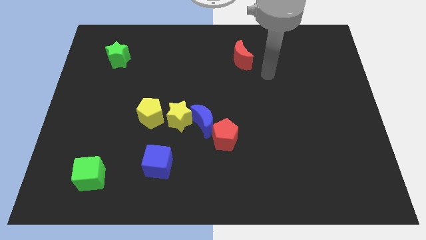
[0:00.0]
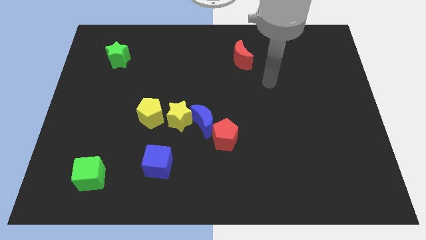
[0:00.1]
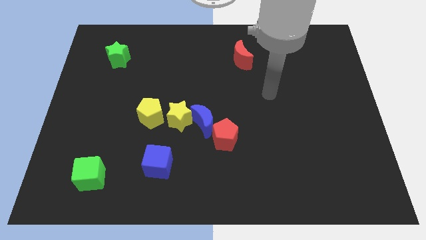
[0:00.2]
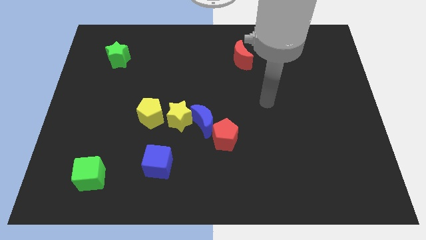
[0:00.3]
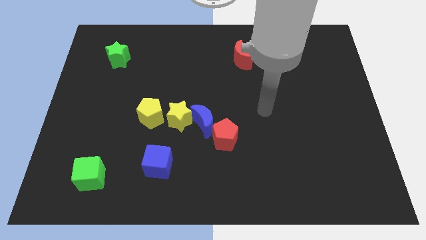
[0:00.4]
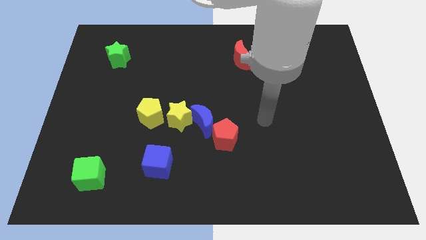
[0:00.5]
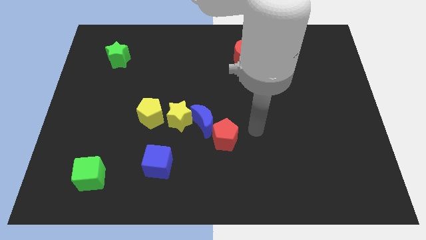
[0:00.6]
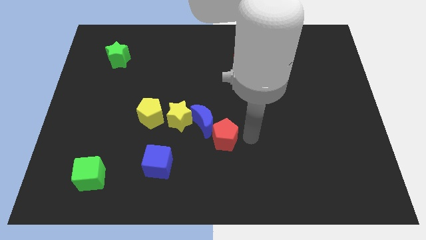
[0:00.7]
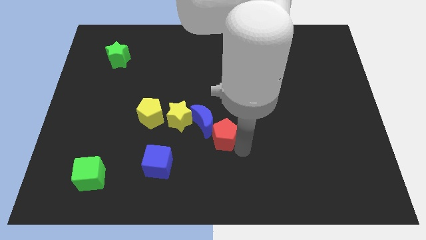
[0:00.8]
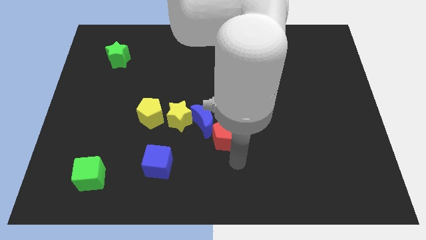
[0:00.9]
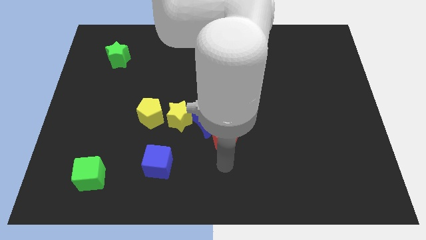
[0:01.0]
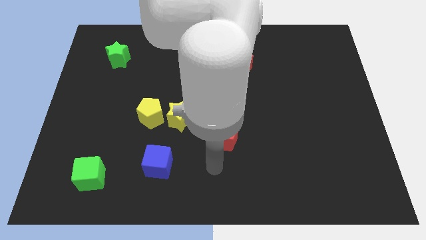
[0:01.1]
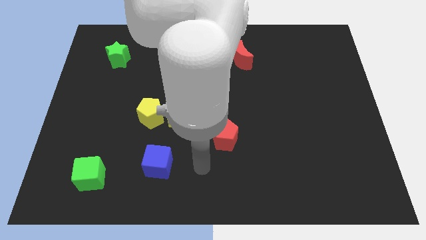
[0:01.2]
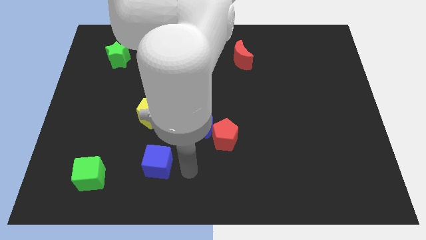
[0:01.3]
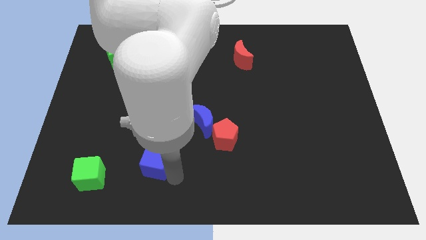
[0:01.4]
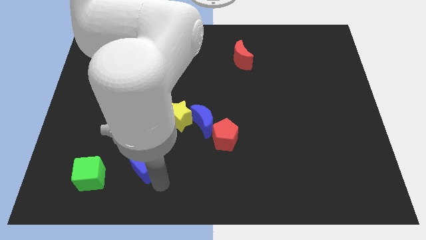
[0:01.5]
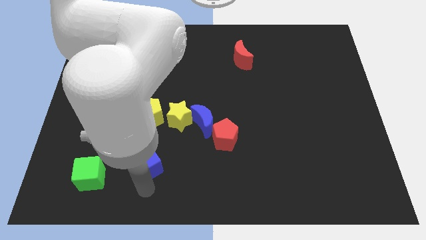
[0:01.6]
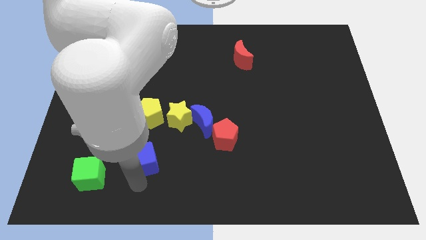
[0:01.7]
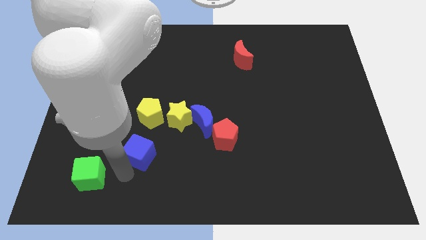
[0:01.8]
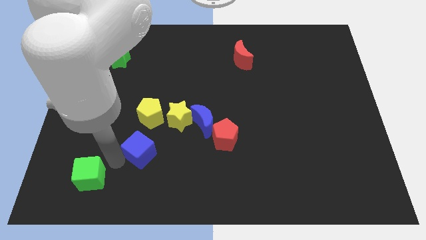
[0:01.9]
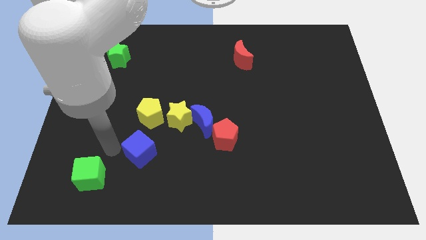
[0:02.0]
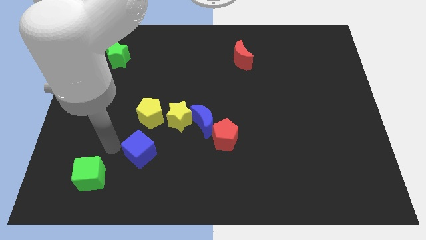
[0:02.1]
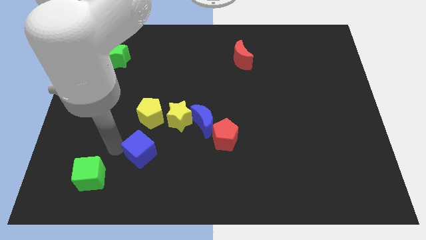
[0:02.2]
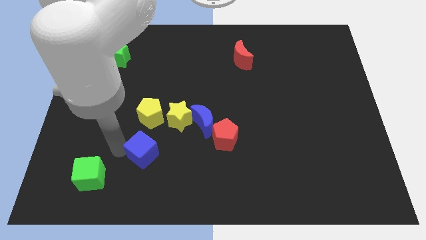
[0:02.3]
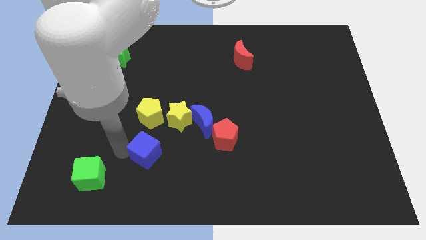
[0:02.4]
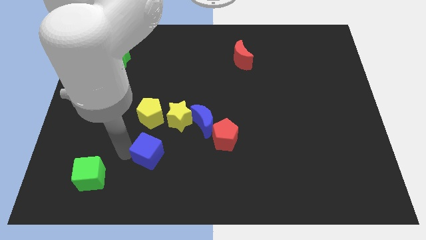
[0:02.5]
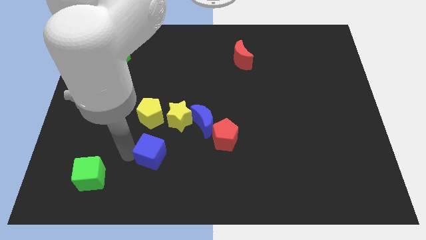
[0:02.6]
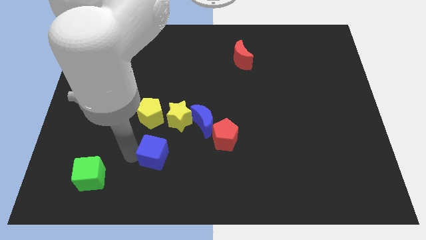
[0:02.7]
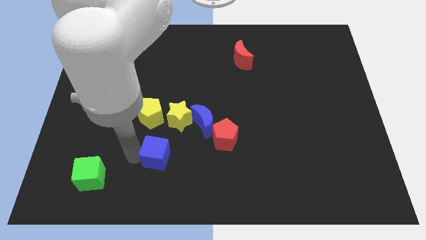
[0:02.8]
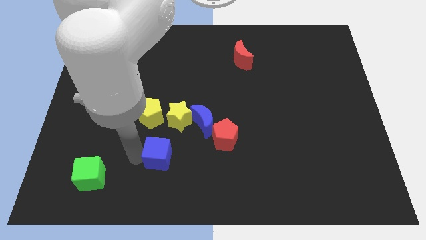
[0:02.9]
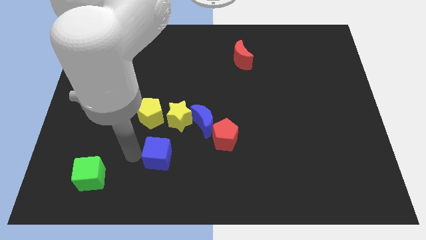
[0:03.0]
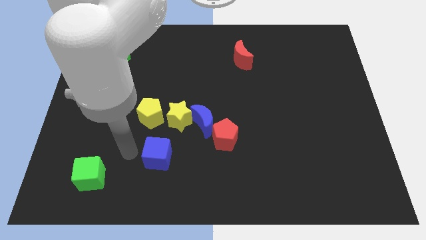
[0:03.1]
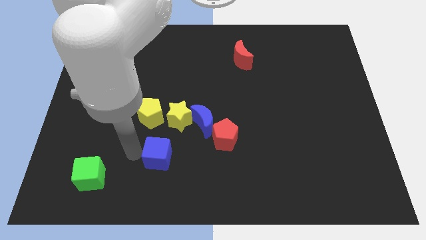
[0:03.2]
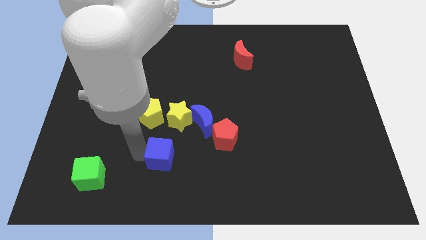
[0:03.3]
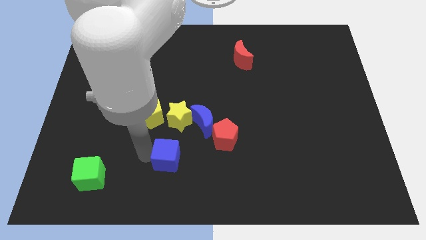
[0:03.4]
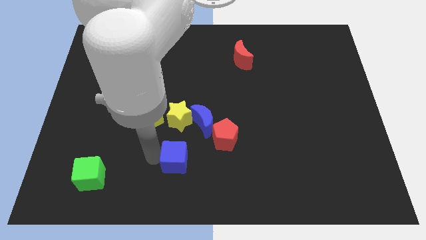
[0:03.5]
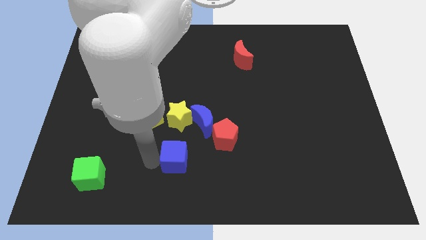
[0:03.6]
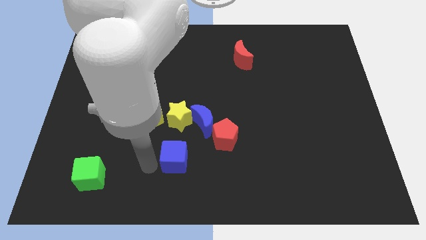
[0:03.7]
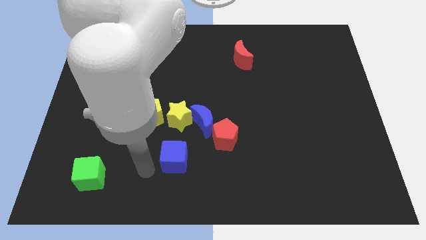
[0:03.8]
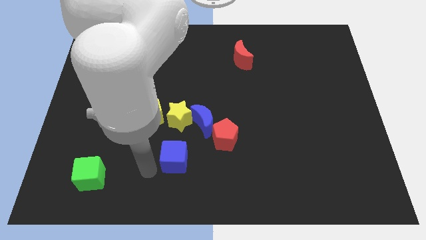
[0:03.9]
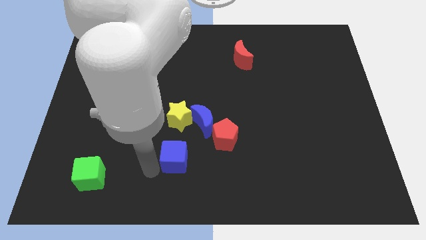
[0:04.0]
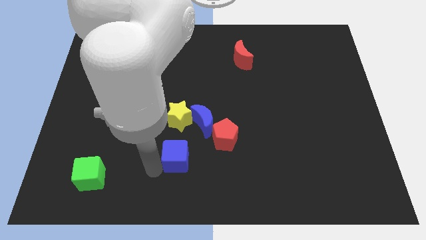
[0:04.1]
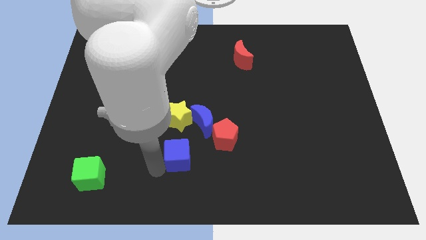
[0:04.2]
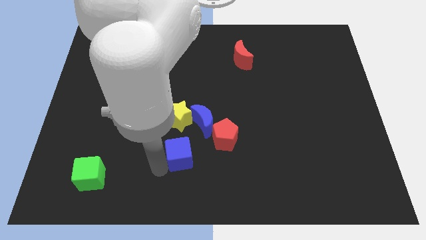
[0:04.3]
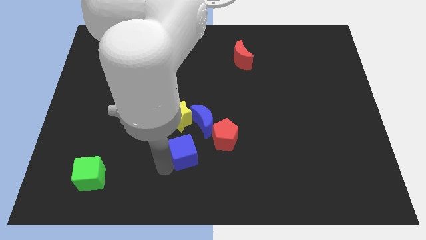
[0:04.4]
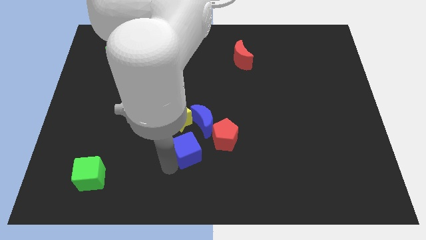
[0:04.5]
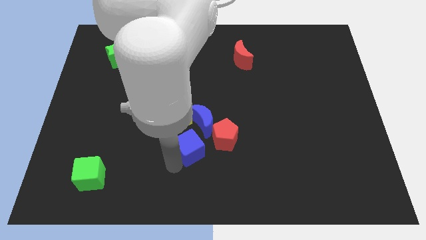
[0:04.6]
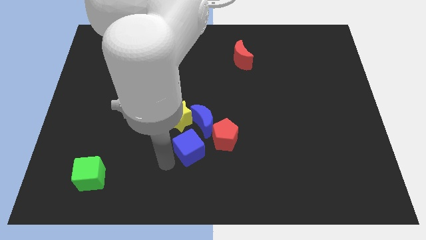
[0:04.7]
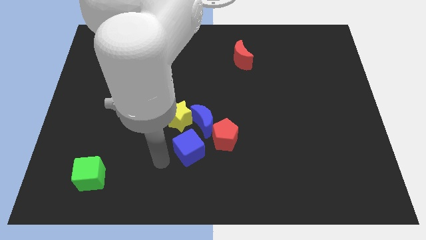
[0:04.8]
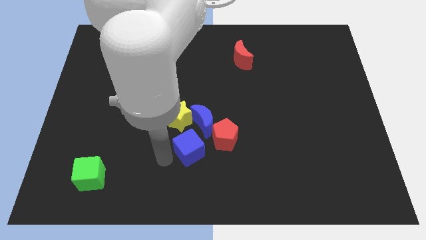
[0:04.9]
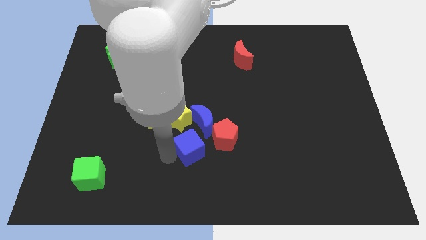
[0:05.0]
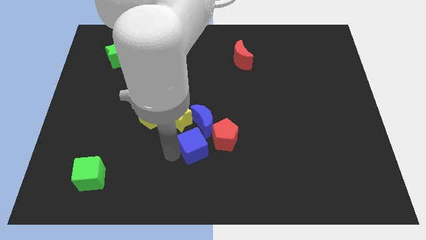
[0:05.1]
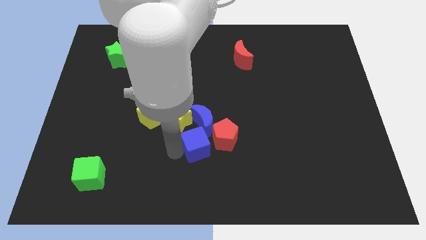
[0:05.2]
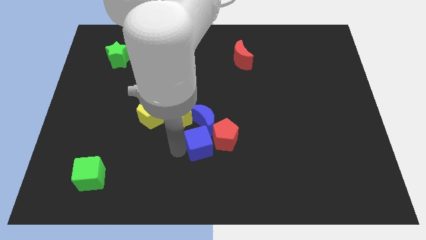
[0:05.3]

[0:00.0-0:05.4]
push the blue cube to the red pentagon

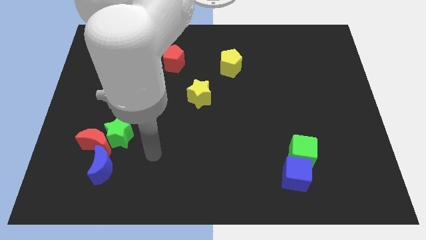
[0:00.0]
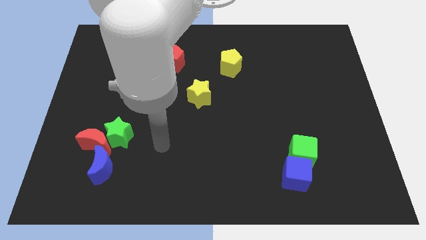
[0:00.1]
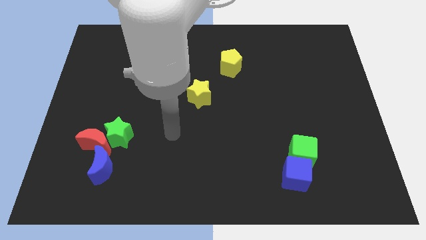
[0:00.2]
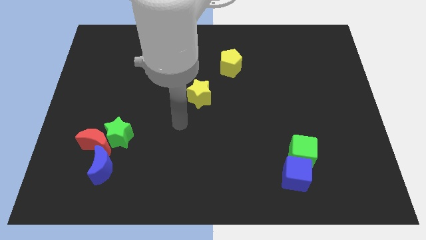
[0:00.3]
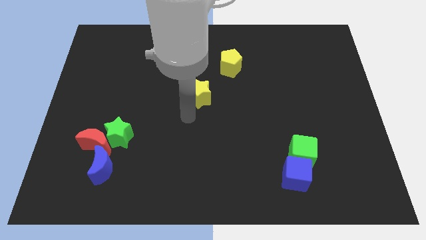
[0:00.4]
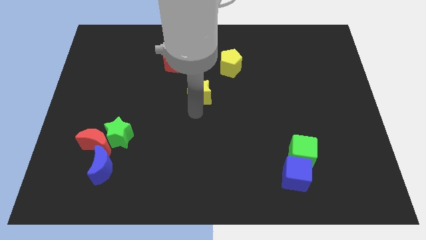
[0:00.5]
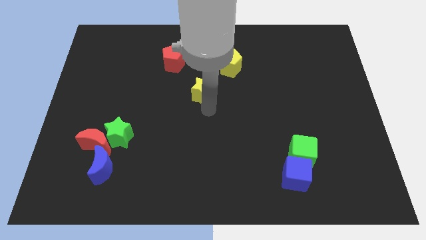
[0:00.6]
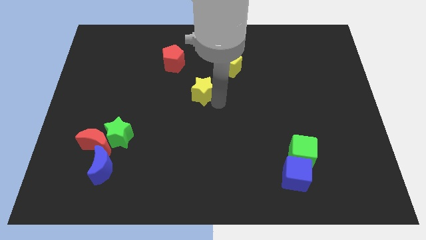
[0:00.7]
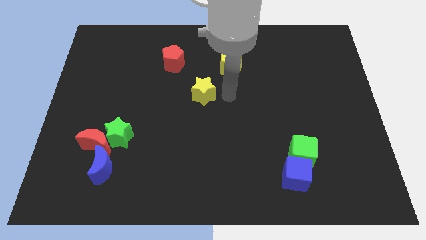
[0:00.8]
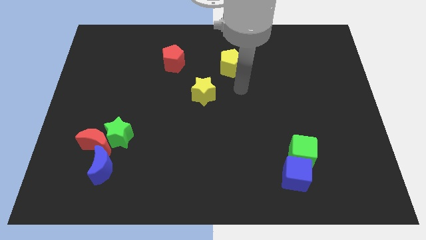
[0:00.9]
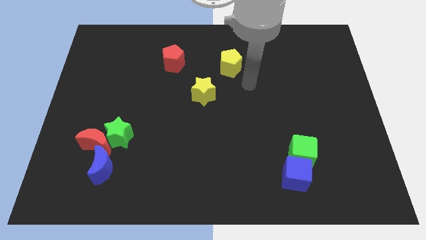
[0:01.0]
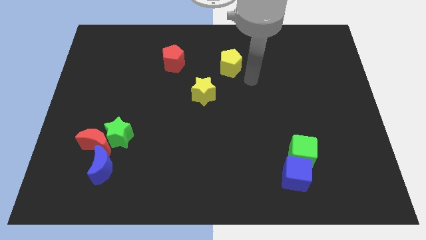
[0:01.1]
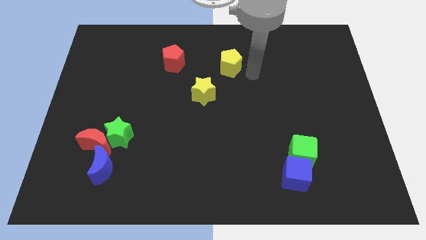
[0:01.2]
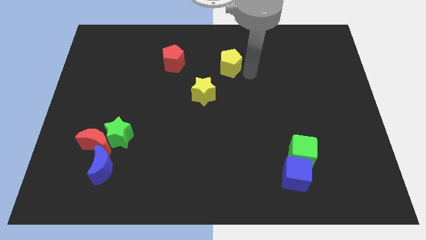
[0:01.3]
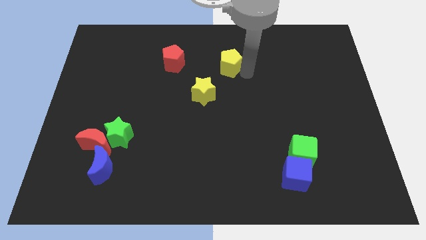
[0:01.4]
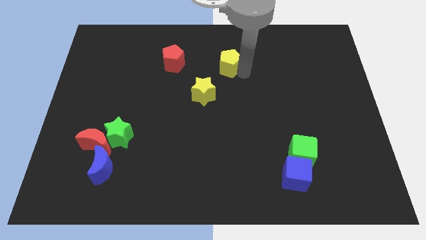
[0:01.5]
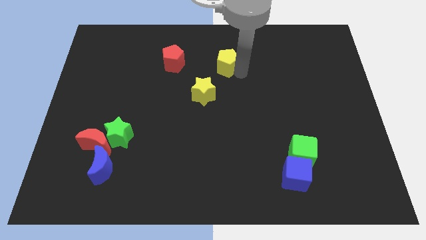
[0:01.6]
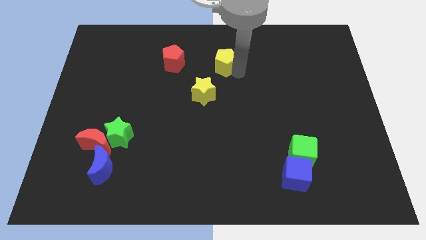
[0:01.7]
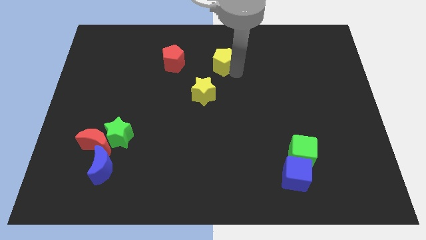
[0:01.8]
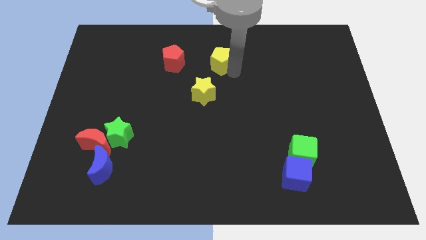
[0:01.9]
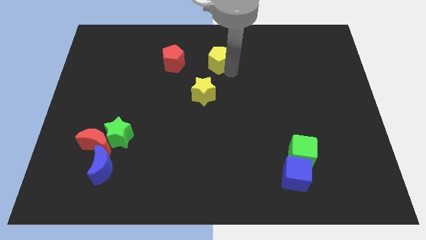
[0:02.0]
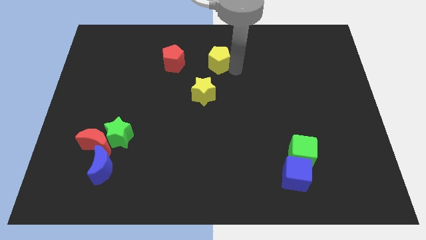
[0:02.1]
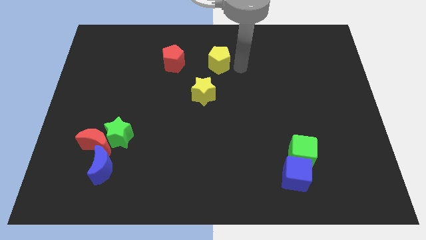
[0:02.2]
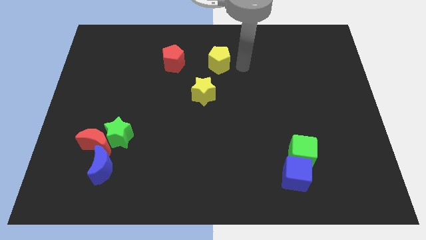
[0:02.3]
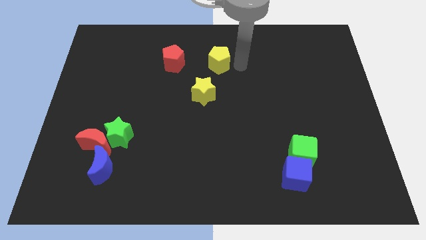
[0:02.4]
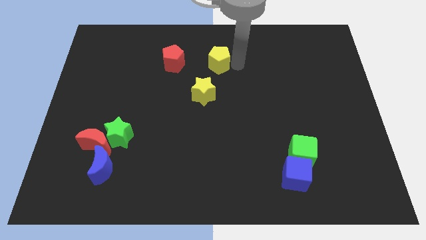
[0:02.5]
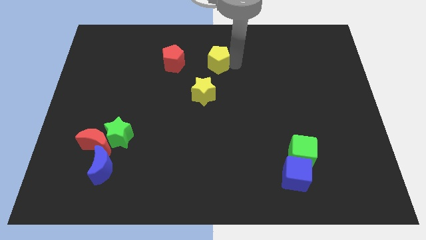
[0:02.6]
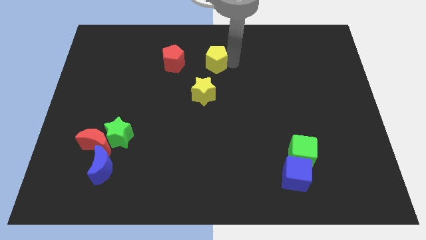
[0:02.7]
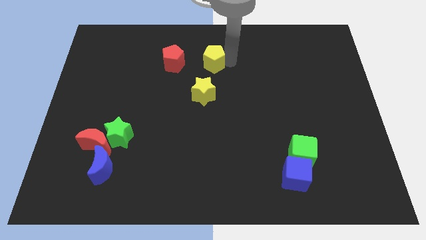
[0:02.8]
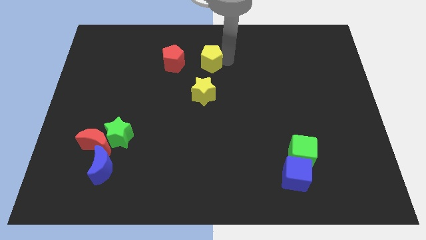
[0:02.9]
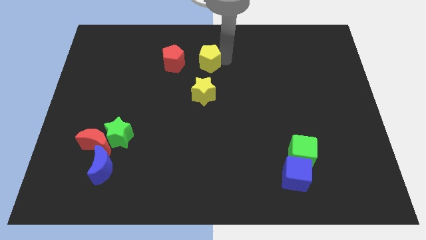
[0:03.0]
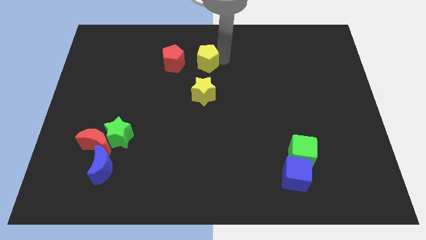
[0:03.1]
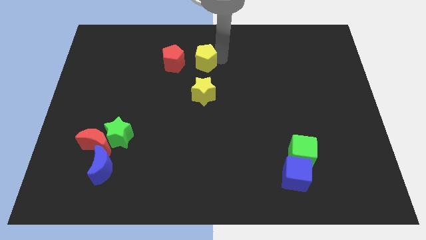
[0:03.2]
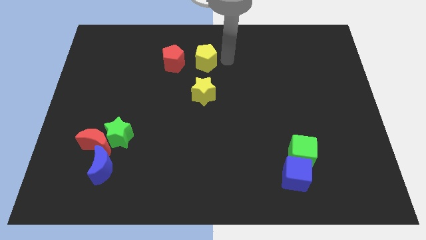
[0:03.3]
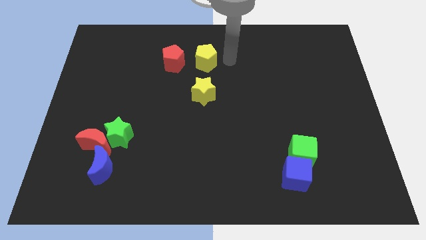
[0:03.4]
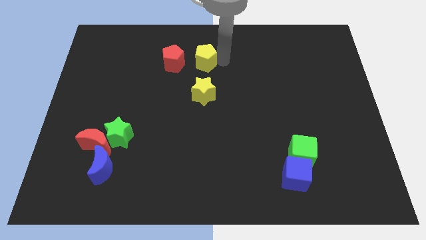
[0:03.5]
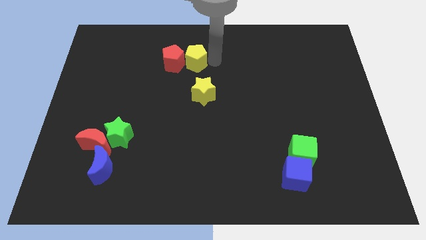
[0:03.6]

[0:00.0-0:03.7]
put the yellow pentagon to the red pentagon
